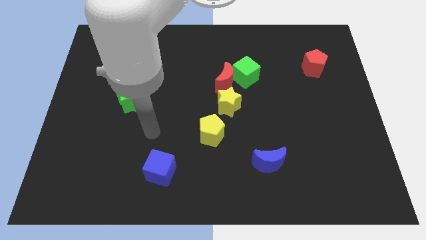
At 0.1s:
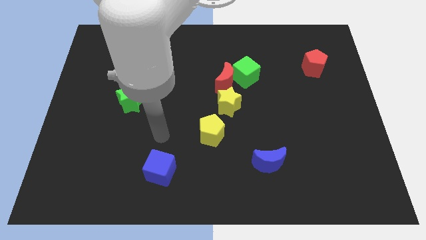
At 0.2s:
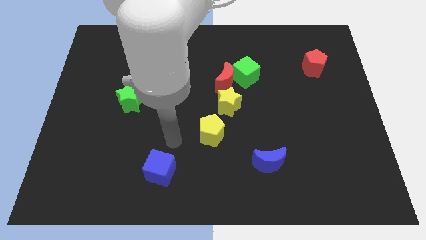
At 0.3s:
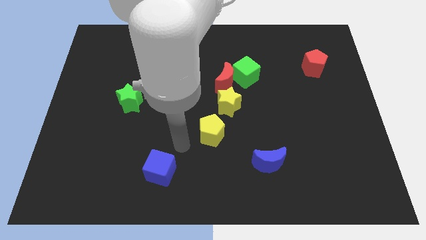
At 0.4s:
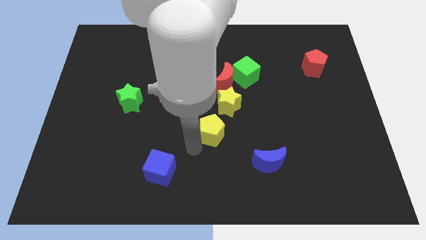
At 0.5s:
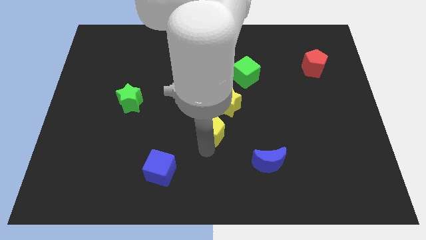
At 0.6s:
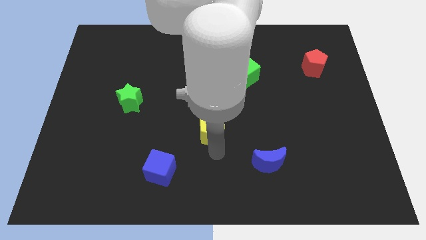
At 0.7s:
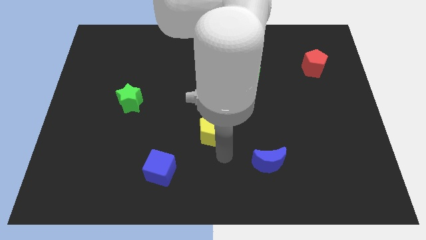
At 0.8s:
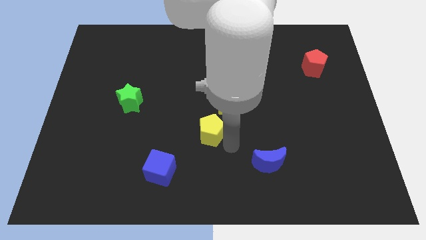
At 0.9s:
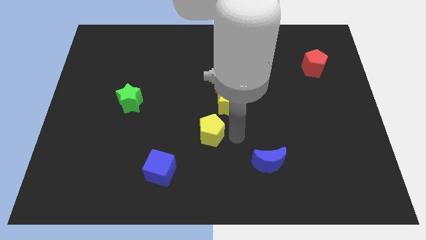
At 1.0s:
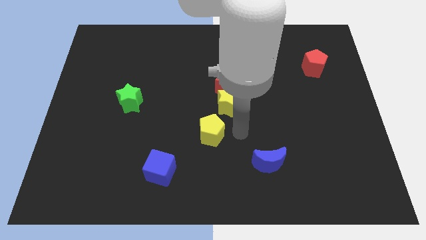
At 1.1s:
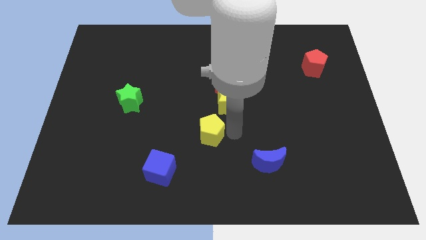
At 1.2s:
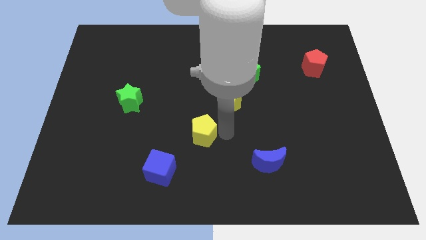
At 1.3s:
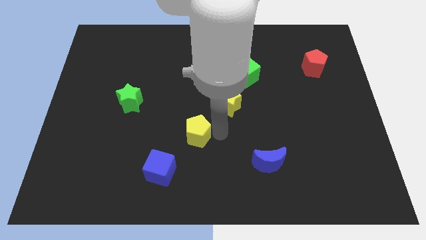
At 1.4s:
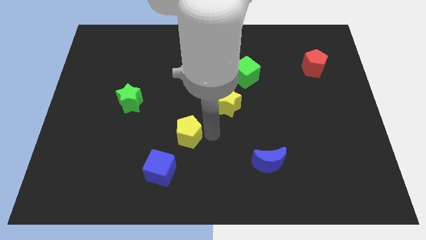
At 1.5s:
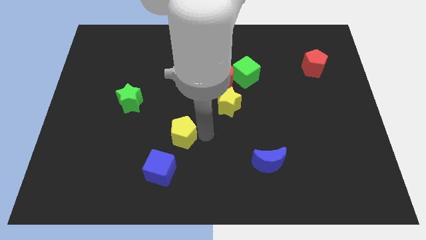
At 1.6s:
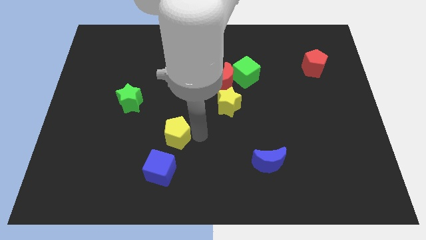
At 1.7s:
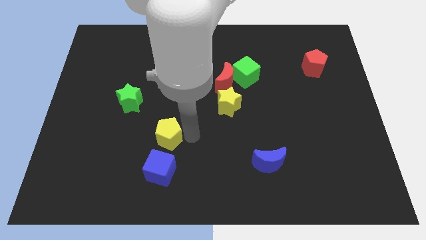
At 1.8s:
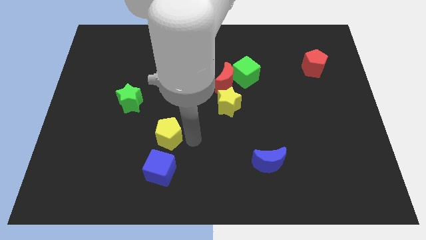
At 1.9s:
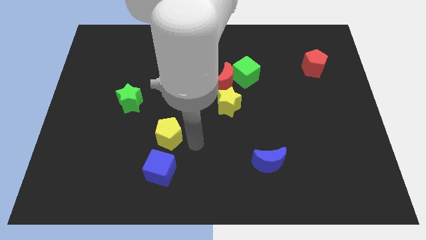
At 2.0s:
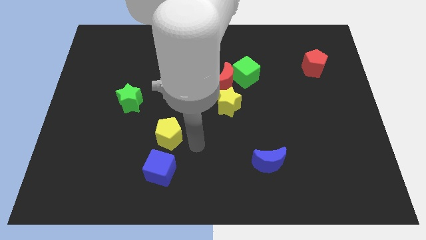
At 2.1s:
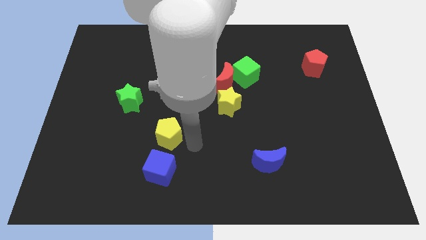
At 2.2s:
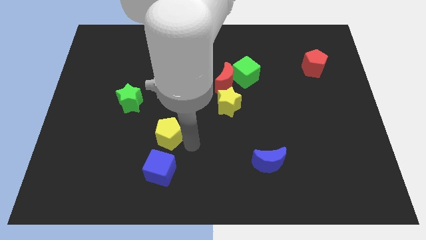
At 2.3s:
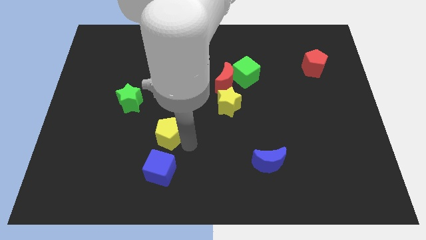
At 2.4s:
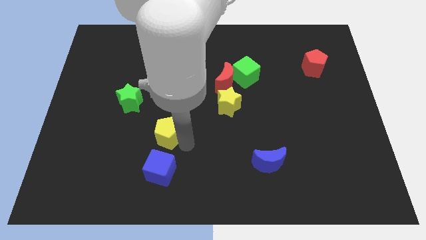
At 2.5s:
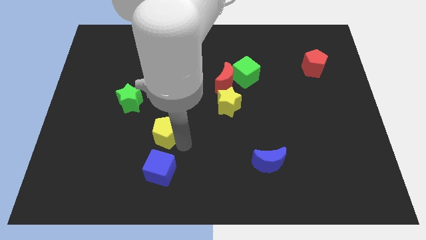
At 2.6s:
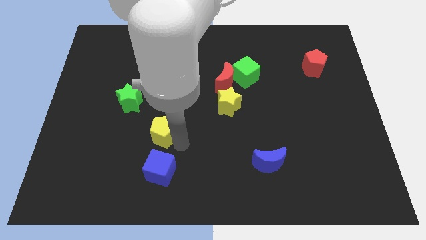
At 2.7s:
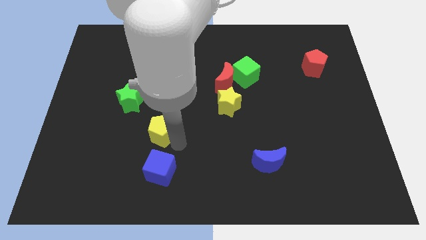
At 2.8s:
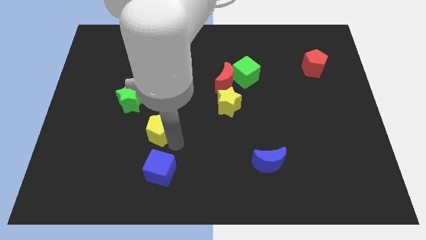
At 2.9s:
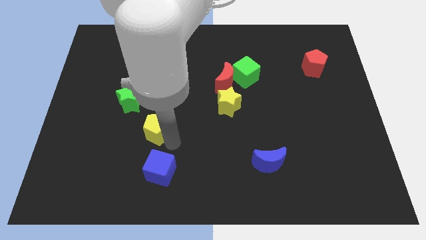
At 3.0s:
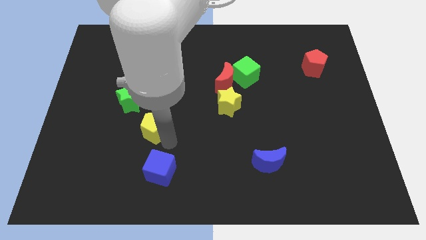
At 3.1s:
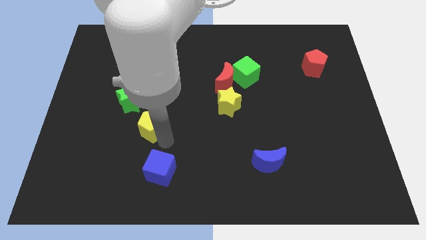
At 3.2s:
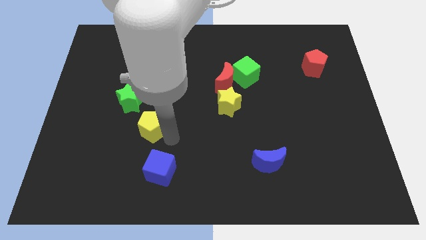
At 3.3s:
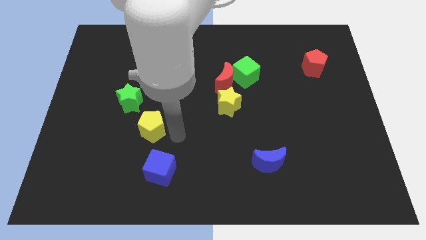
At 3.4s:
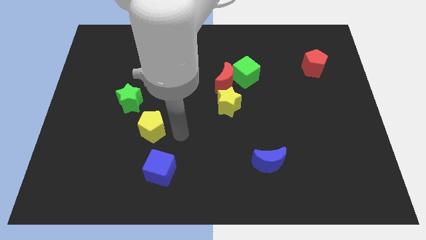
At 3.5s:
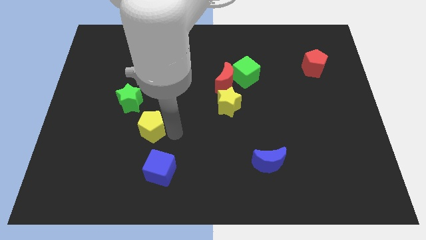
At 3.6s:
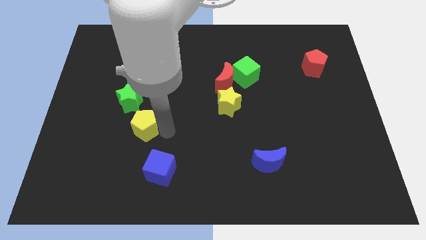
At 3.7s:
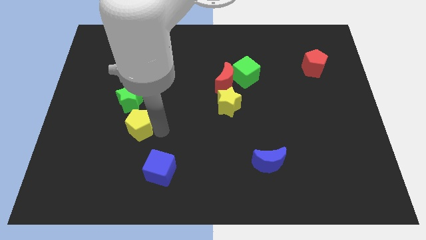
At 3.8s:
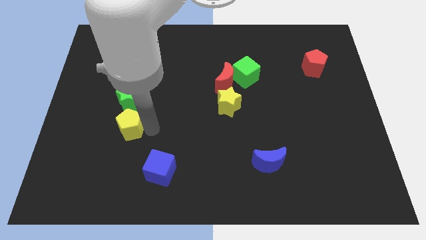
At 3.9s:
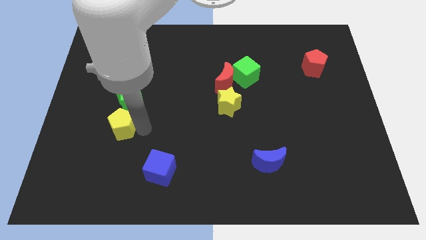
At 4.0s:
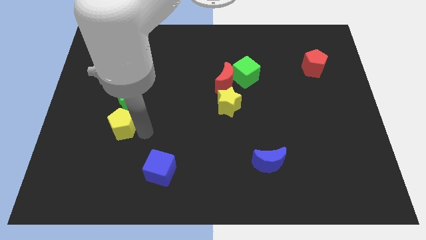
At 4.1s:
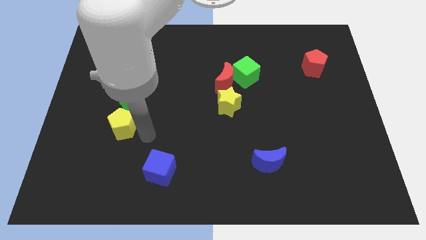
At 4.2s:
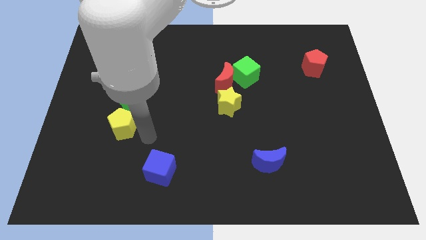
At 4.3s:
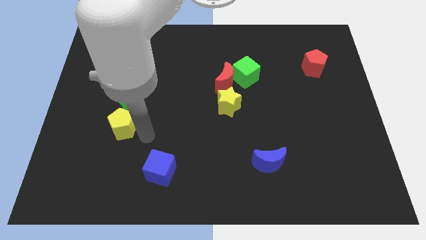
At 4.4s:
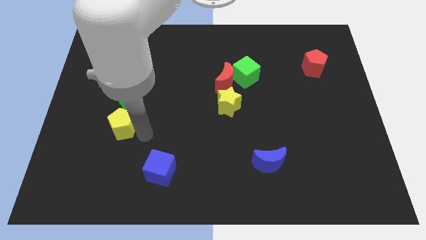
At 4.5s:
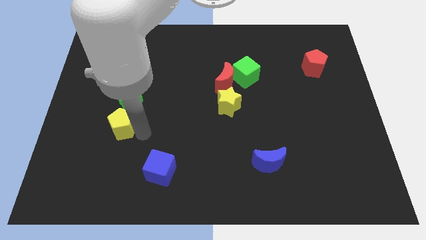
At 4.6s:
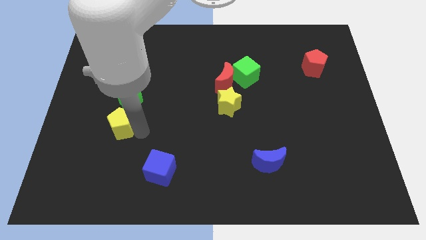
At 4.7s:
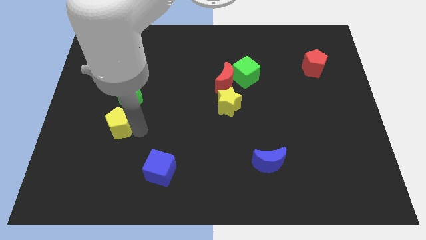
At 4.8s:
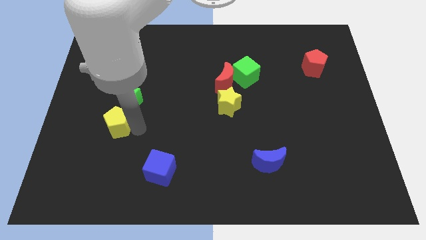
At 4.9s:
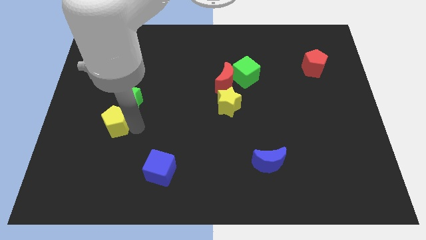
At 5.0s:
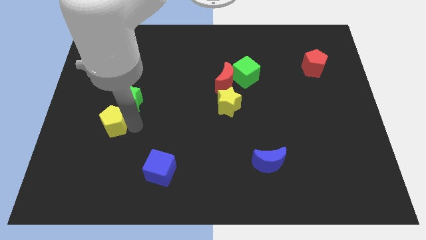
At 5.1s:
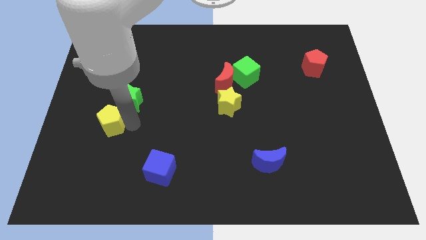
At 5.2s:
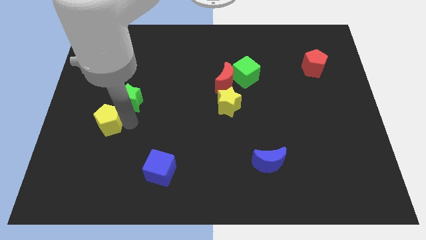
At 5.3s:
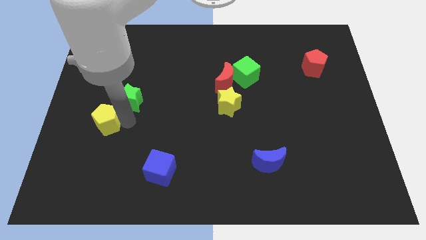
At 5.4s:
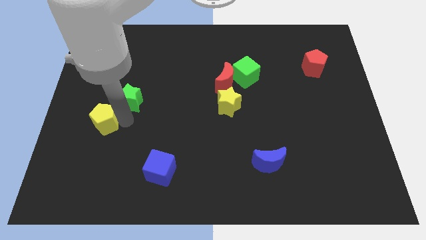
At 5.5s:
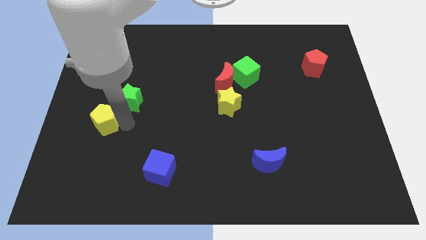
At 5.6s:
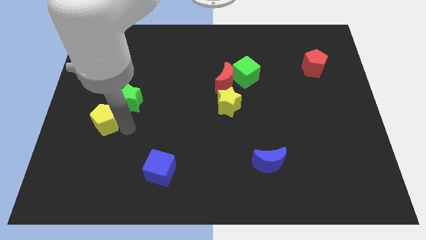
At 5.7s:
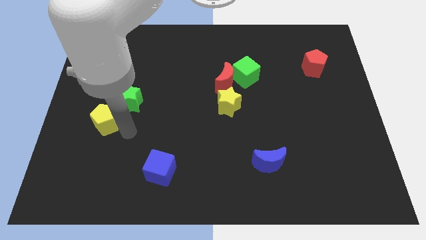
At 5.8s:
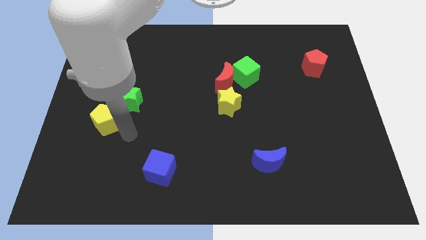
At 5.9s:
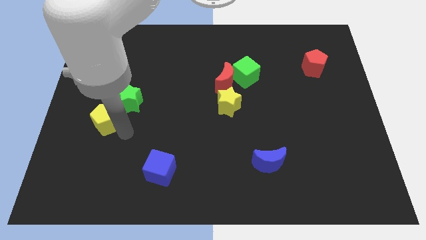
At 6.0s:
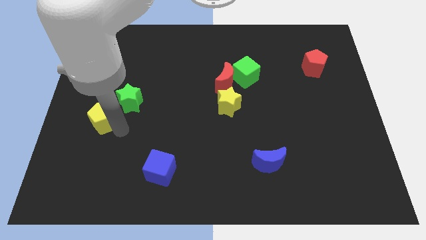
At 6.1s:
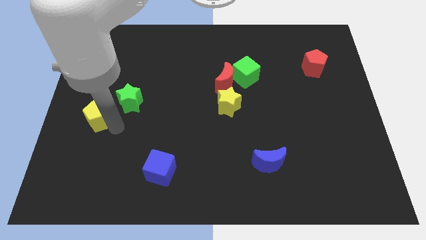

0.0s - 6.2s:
put the yellow pentagon to the left side
